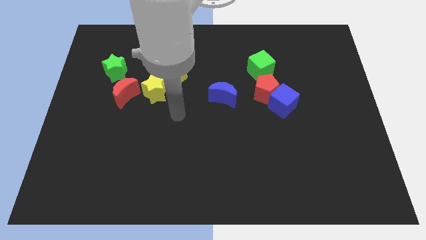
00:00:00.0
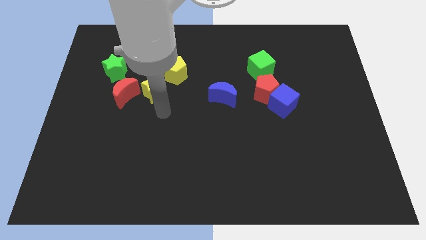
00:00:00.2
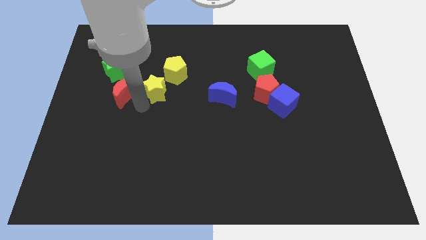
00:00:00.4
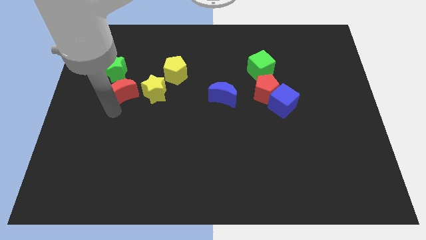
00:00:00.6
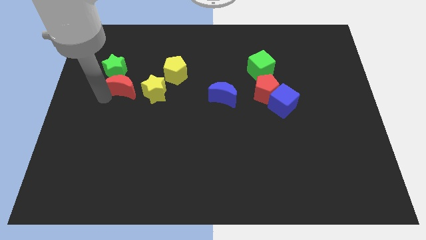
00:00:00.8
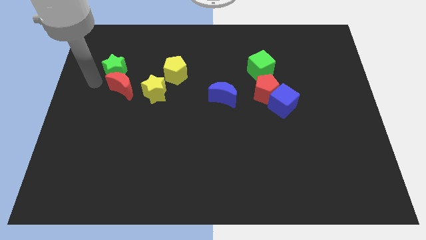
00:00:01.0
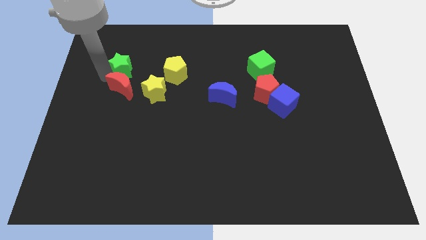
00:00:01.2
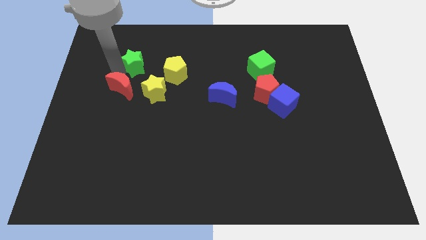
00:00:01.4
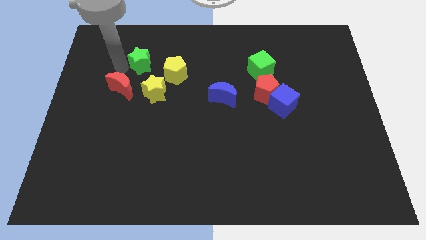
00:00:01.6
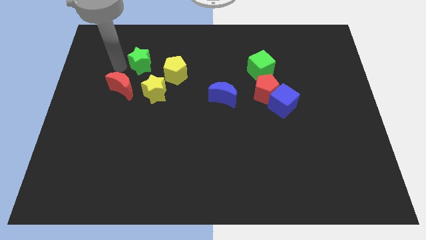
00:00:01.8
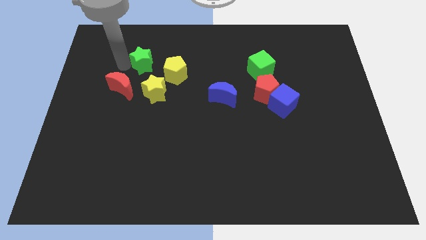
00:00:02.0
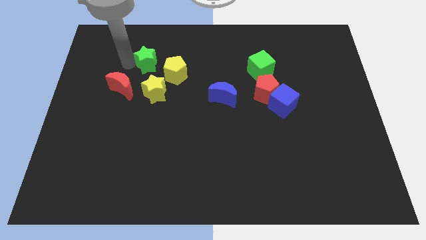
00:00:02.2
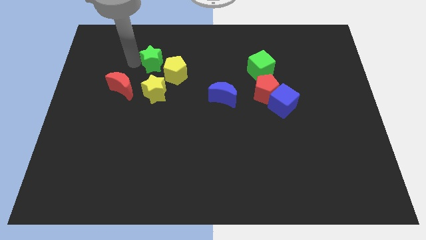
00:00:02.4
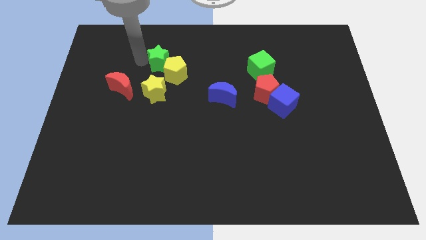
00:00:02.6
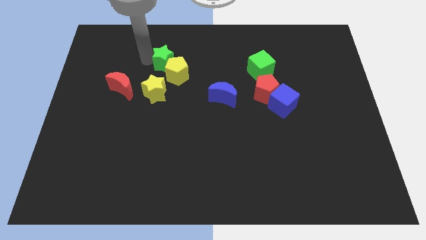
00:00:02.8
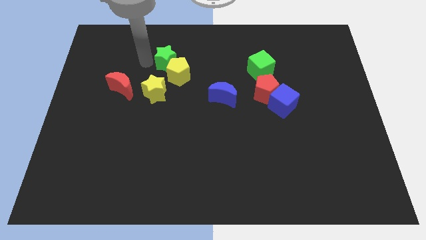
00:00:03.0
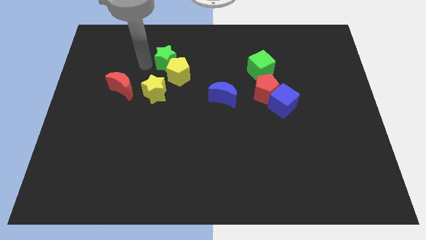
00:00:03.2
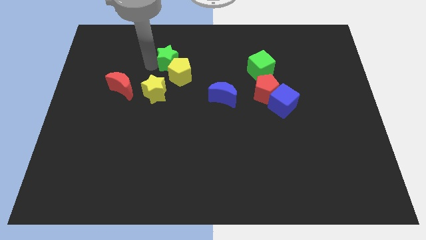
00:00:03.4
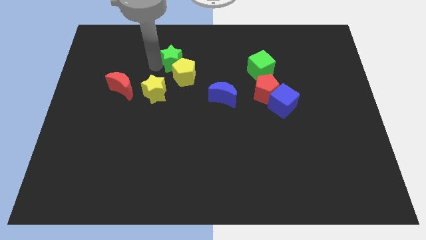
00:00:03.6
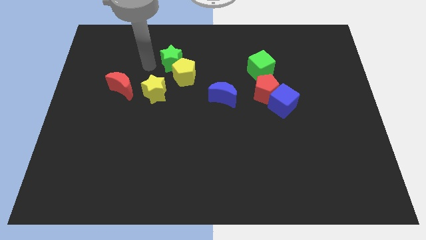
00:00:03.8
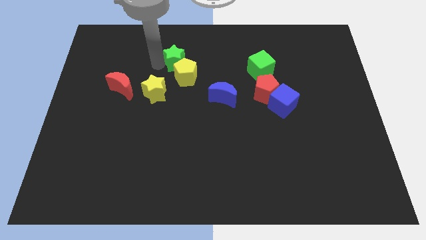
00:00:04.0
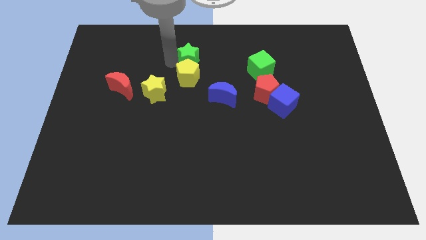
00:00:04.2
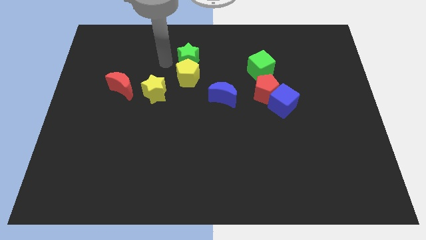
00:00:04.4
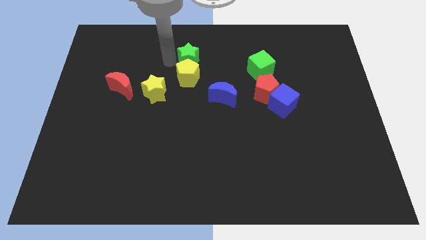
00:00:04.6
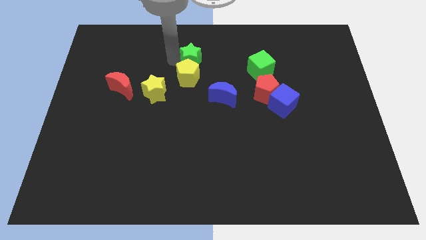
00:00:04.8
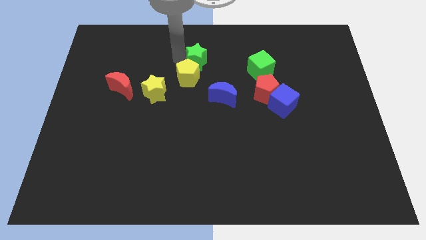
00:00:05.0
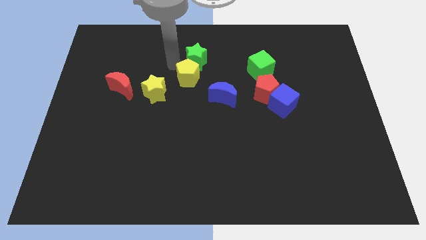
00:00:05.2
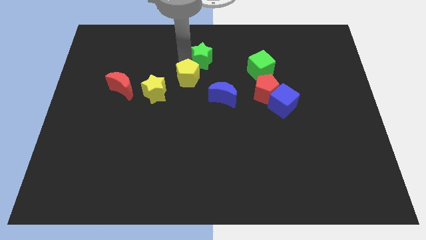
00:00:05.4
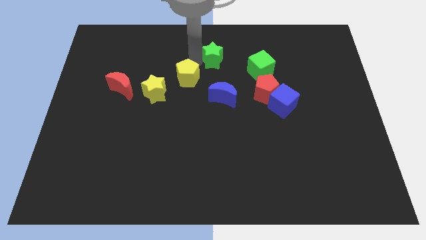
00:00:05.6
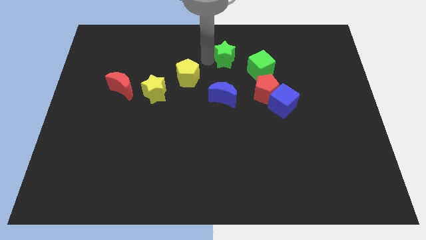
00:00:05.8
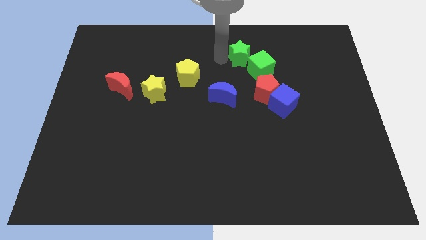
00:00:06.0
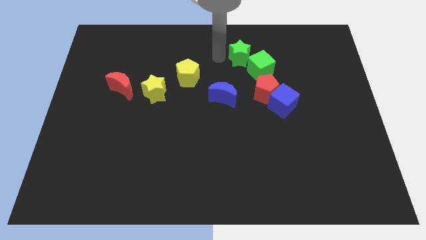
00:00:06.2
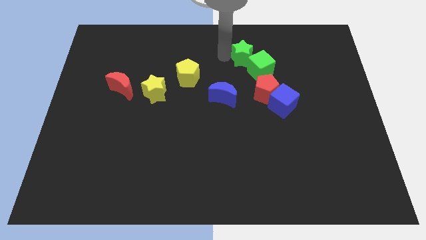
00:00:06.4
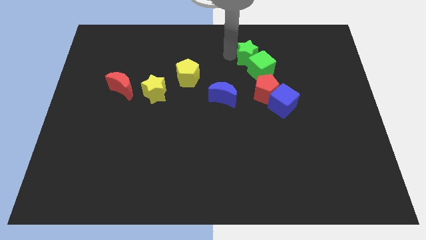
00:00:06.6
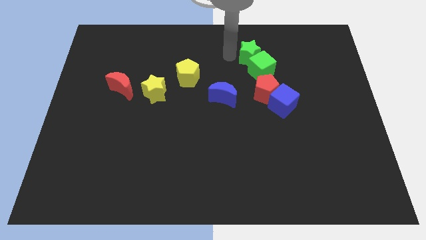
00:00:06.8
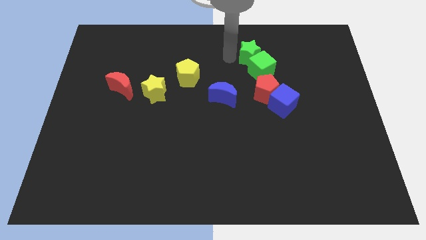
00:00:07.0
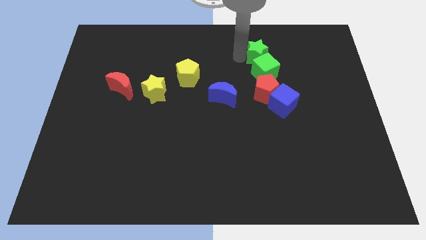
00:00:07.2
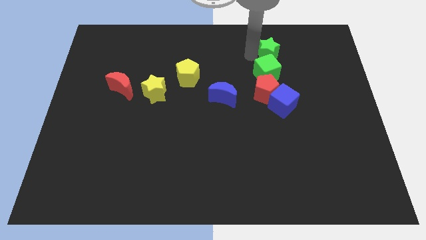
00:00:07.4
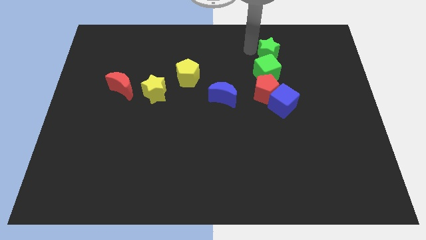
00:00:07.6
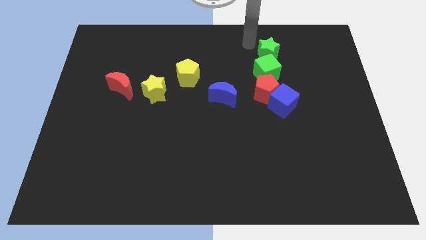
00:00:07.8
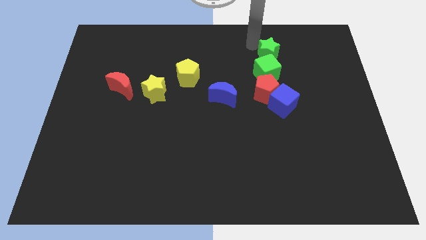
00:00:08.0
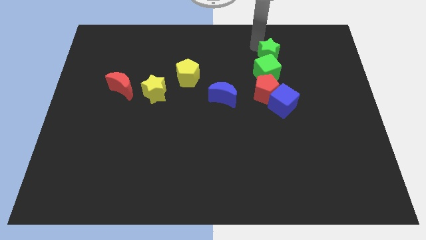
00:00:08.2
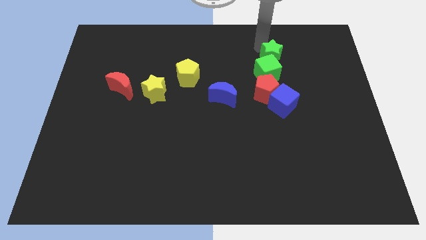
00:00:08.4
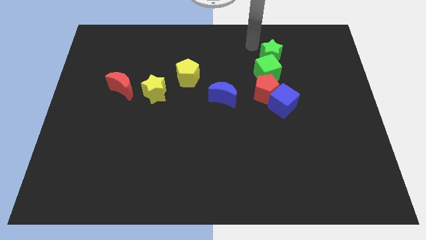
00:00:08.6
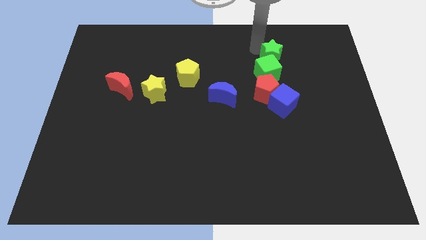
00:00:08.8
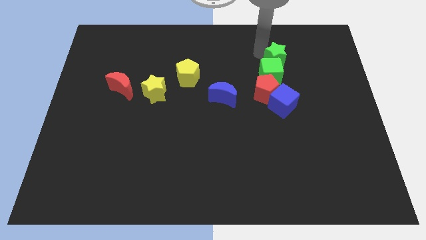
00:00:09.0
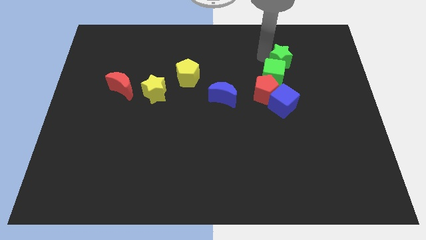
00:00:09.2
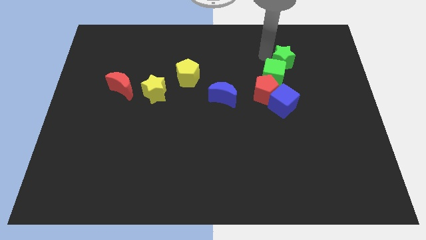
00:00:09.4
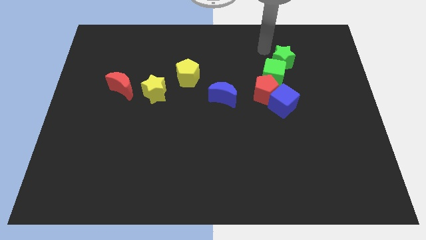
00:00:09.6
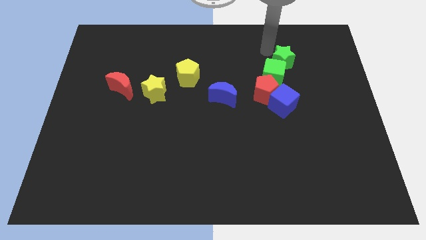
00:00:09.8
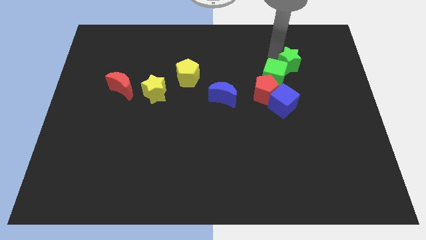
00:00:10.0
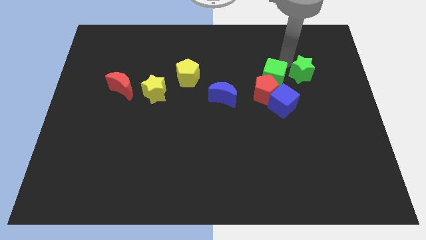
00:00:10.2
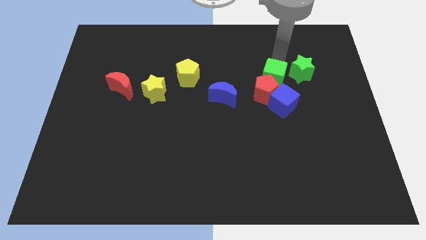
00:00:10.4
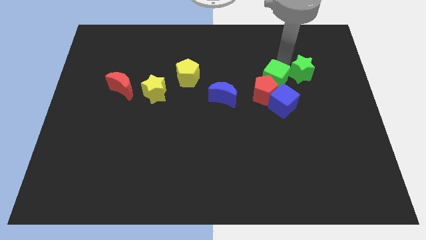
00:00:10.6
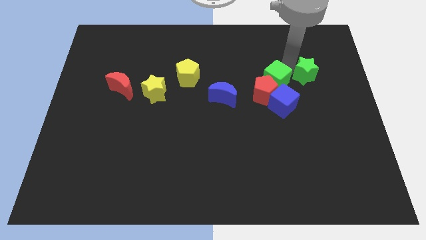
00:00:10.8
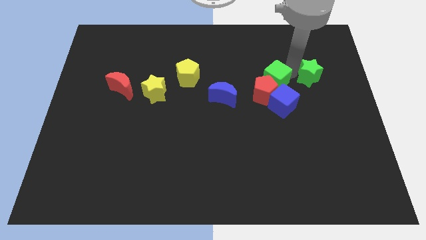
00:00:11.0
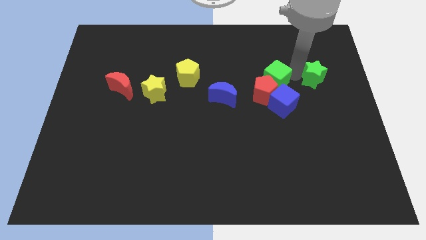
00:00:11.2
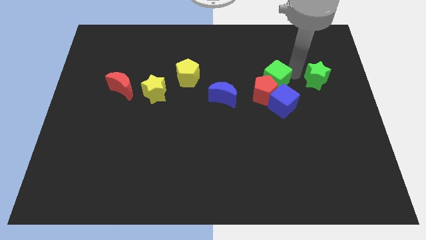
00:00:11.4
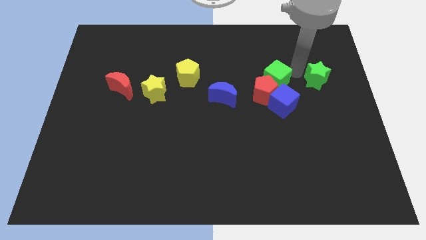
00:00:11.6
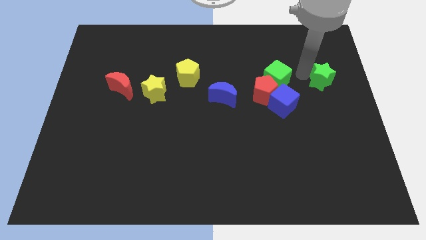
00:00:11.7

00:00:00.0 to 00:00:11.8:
put the green star to the right side

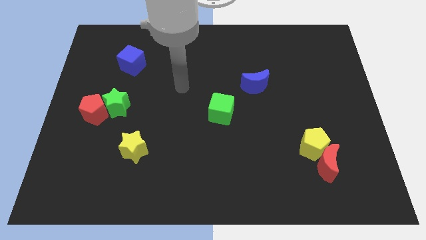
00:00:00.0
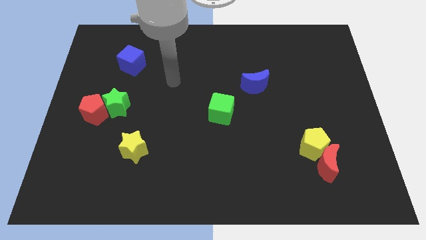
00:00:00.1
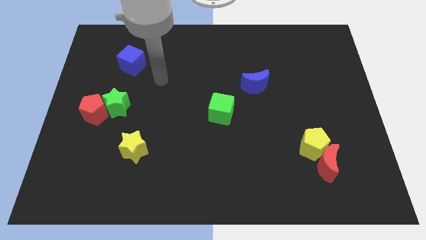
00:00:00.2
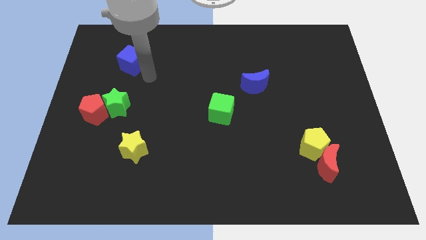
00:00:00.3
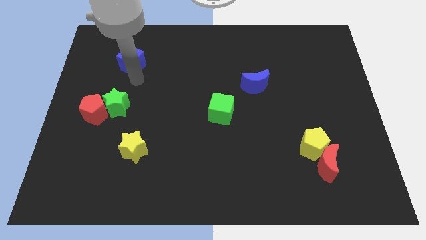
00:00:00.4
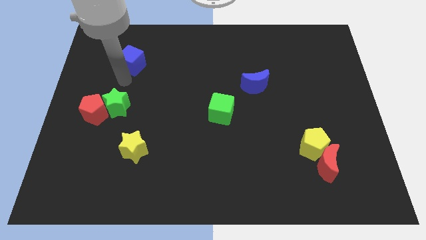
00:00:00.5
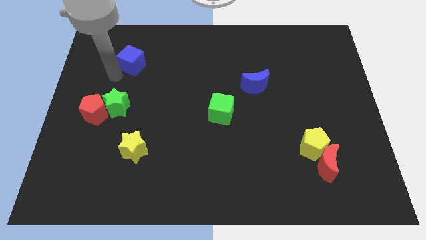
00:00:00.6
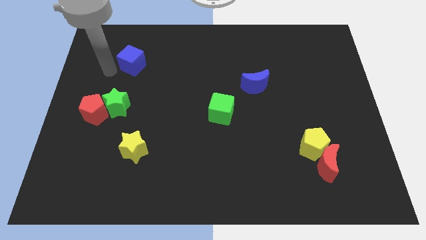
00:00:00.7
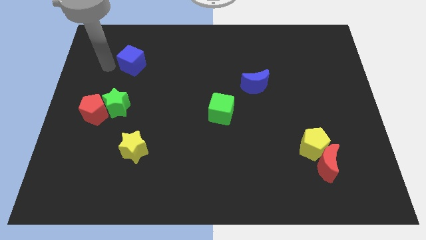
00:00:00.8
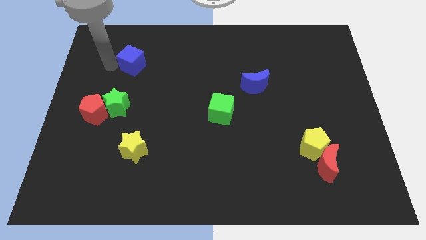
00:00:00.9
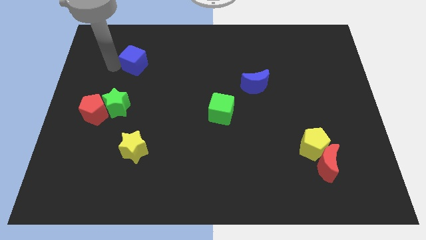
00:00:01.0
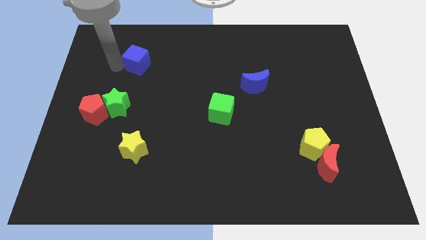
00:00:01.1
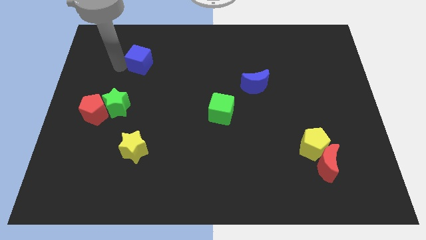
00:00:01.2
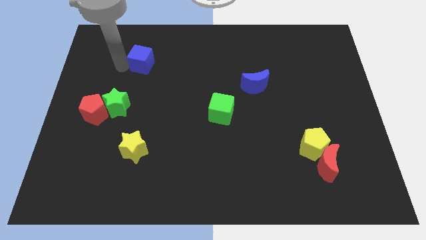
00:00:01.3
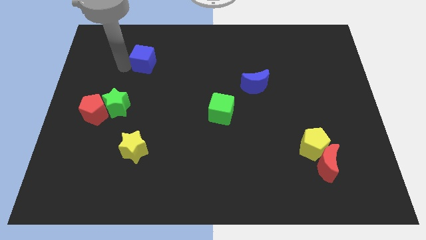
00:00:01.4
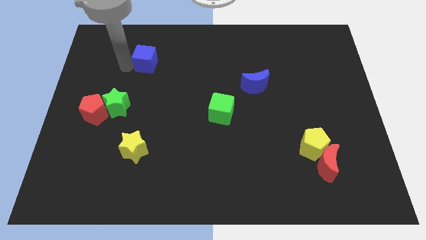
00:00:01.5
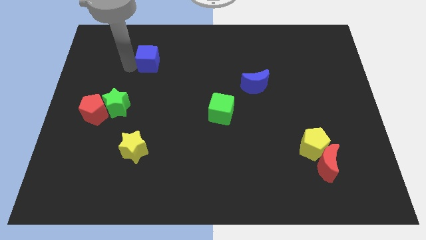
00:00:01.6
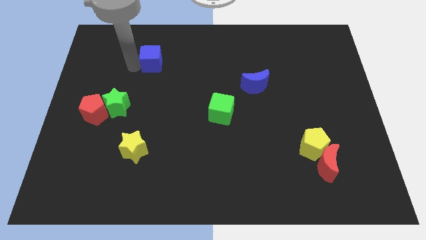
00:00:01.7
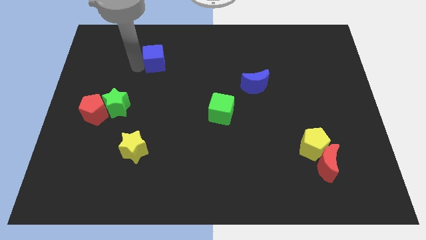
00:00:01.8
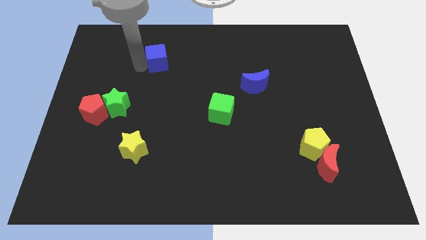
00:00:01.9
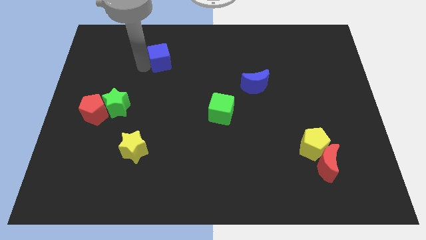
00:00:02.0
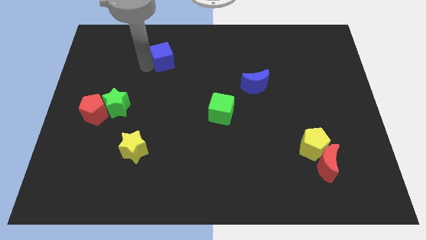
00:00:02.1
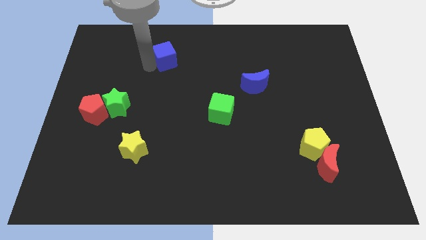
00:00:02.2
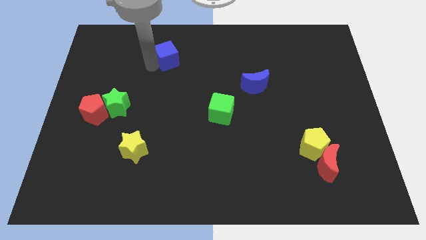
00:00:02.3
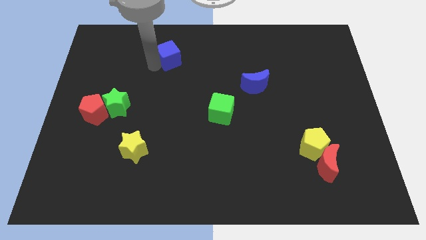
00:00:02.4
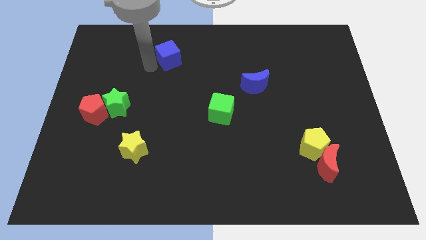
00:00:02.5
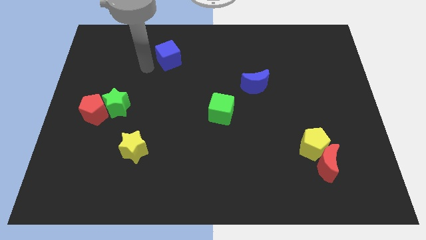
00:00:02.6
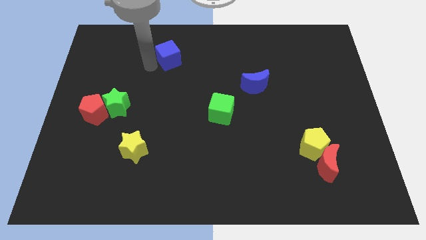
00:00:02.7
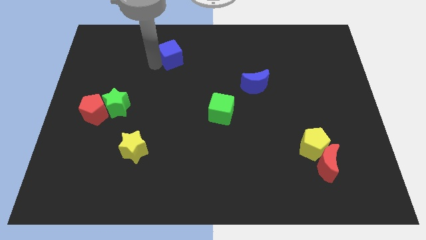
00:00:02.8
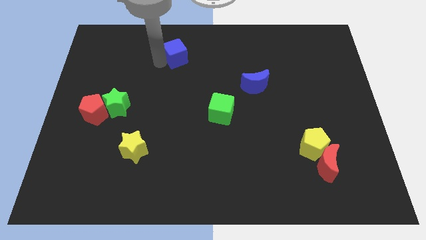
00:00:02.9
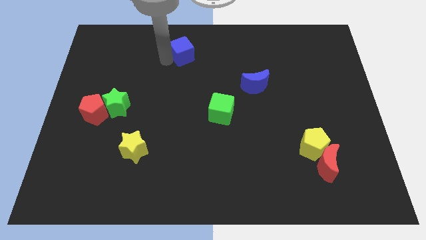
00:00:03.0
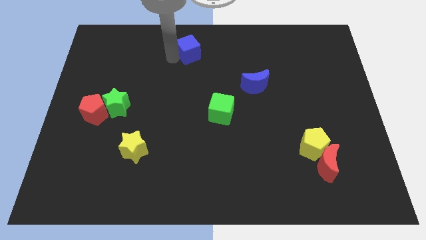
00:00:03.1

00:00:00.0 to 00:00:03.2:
slide the blue cube to the towards your base
